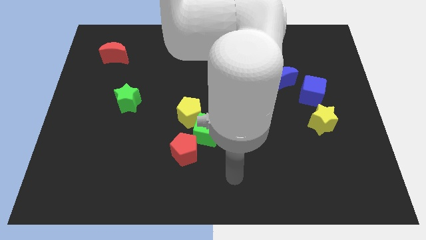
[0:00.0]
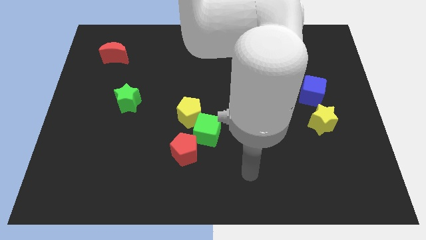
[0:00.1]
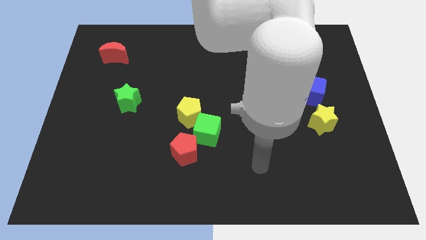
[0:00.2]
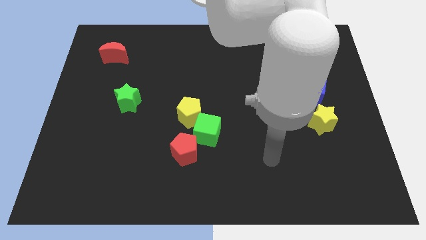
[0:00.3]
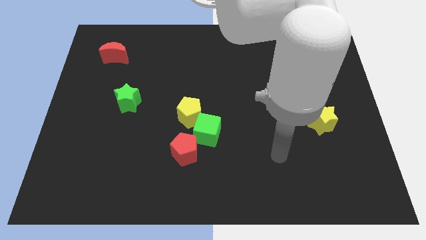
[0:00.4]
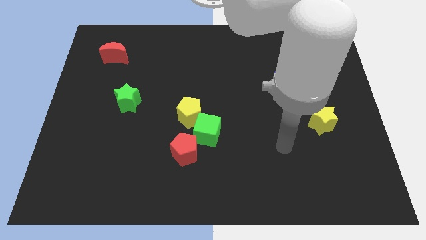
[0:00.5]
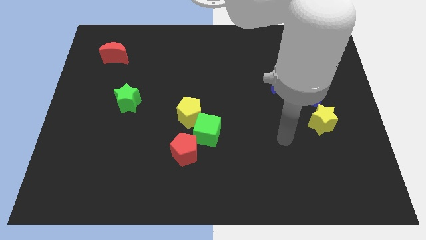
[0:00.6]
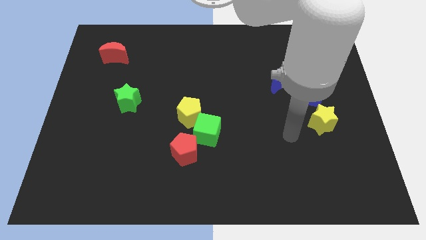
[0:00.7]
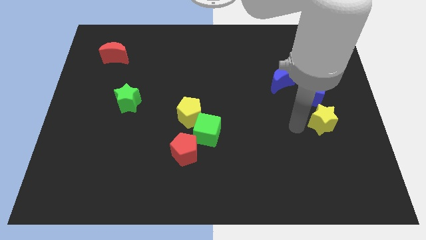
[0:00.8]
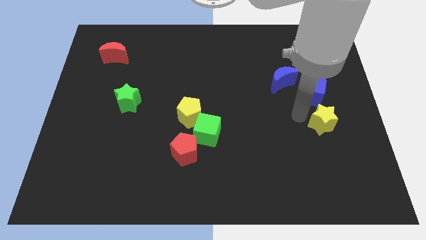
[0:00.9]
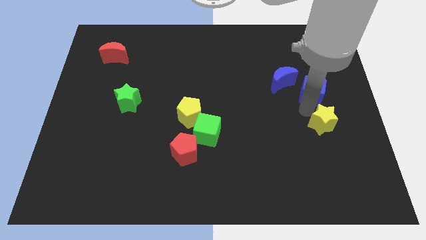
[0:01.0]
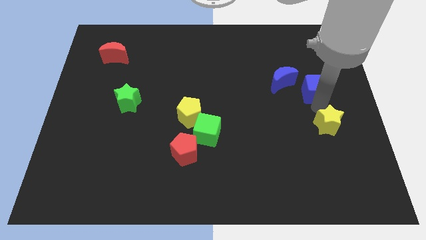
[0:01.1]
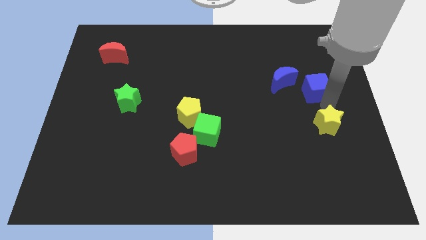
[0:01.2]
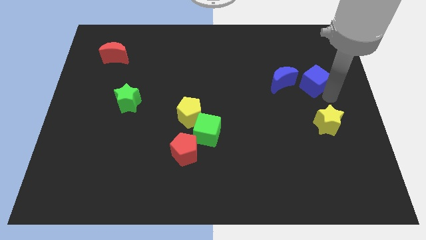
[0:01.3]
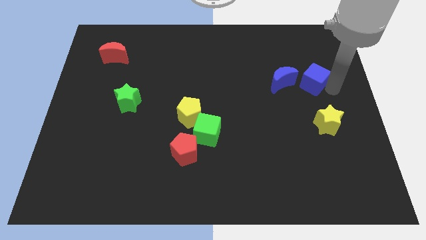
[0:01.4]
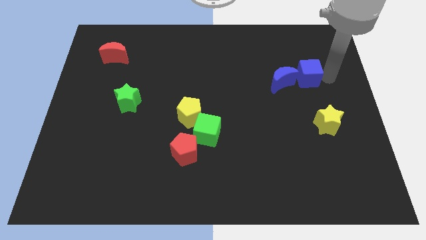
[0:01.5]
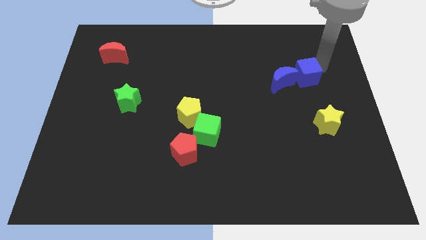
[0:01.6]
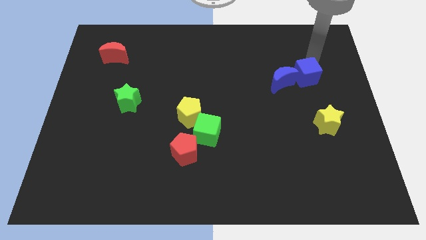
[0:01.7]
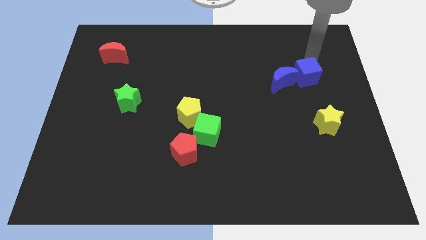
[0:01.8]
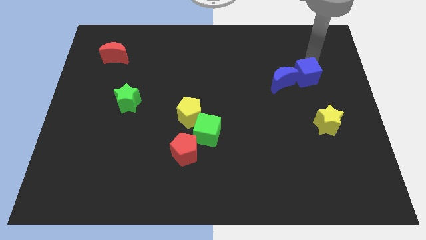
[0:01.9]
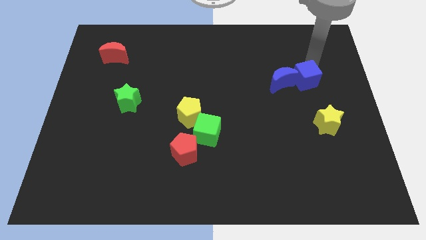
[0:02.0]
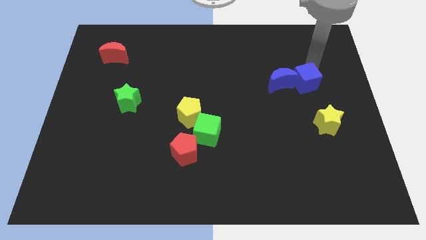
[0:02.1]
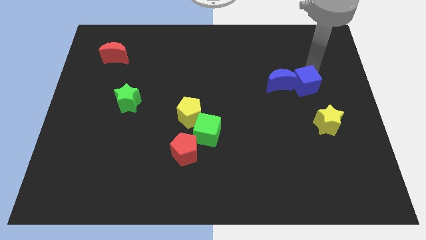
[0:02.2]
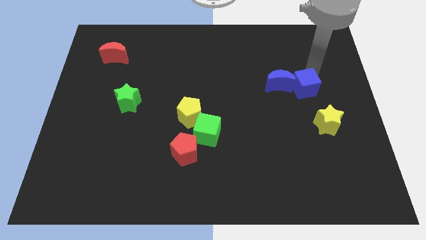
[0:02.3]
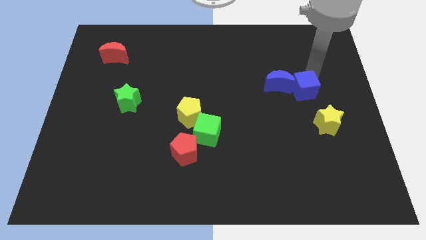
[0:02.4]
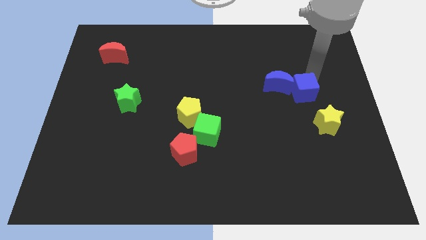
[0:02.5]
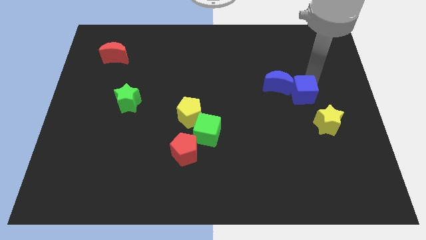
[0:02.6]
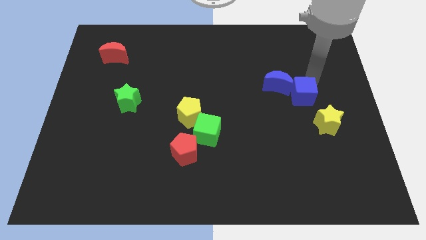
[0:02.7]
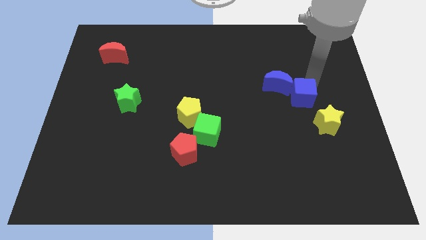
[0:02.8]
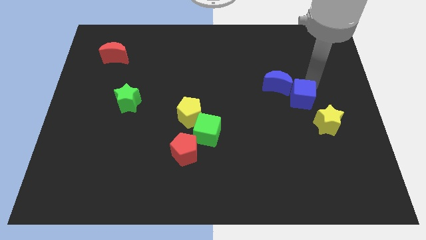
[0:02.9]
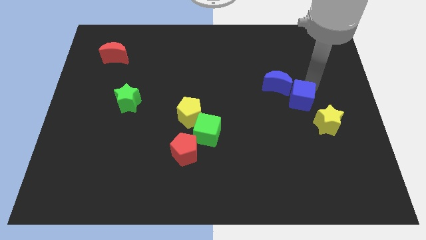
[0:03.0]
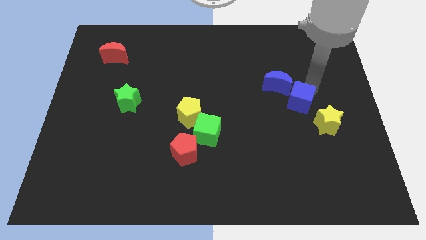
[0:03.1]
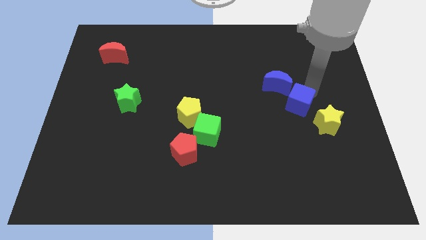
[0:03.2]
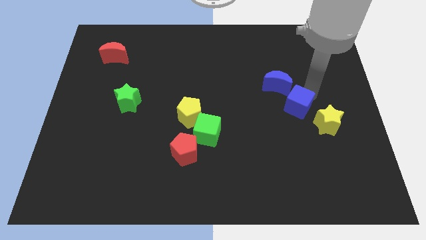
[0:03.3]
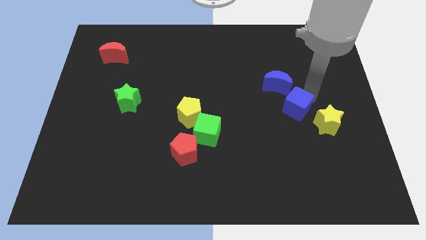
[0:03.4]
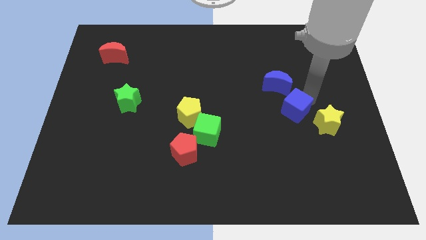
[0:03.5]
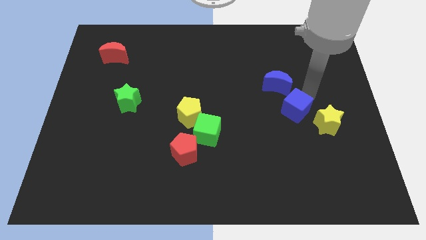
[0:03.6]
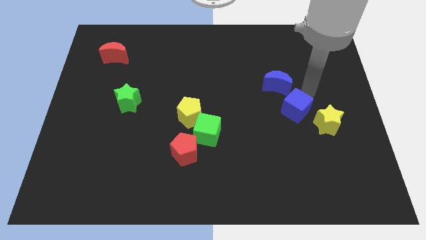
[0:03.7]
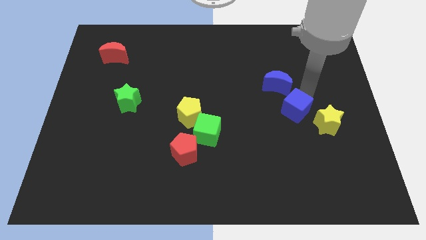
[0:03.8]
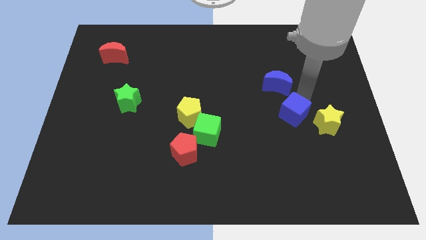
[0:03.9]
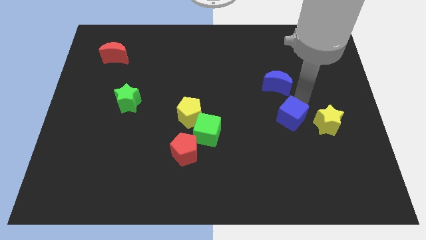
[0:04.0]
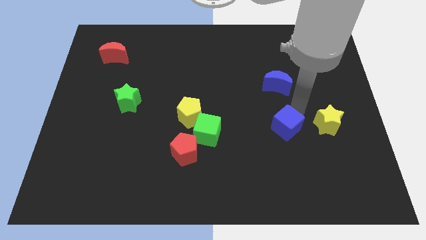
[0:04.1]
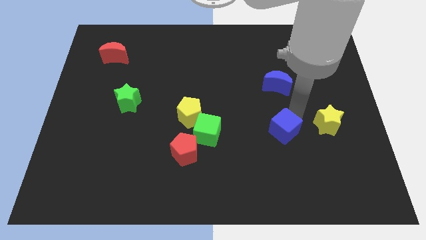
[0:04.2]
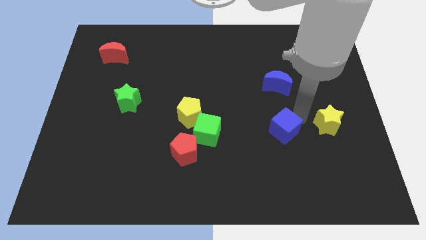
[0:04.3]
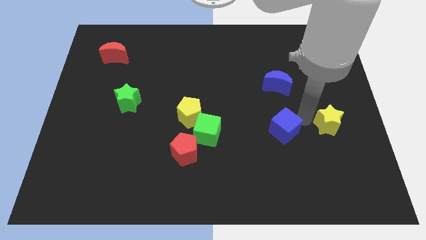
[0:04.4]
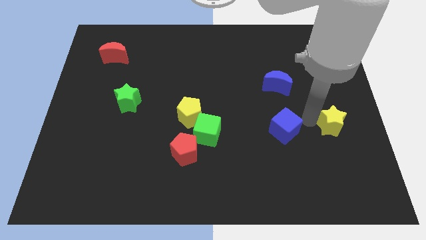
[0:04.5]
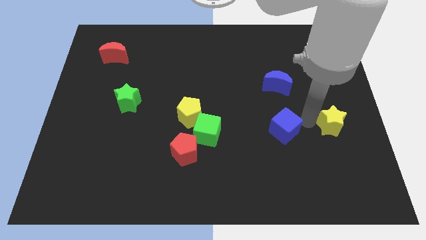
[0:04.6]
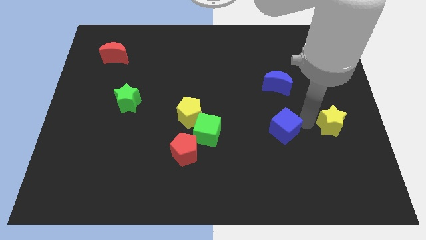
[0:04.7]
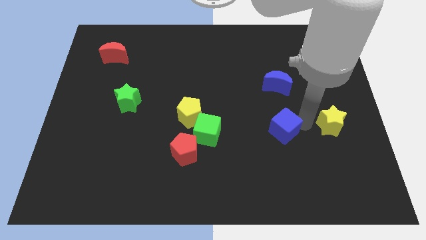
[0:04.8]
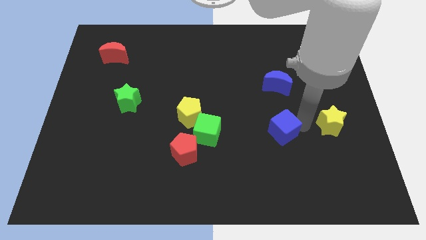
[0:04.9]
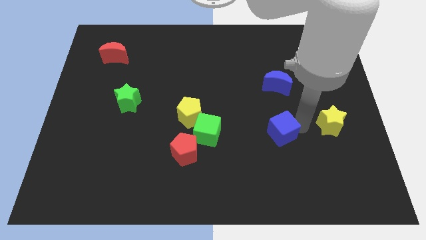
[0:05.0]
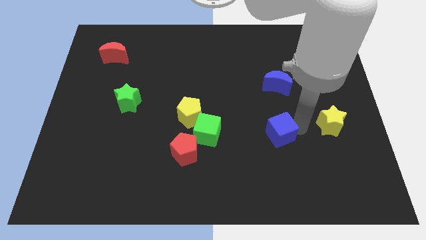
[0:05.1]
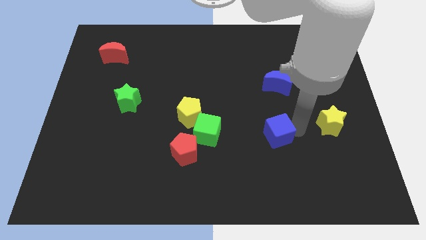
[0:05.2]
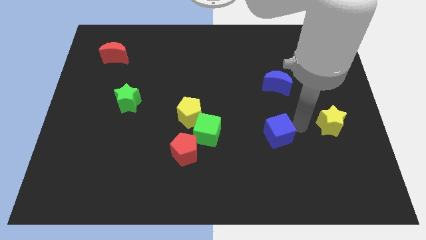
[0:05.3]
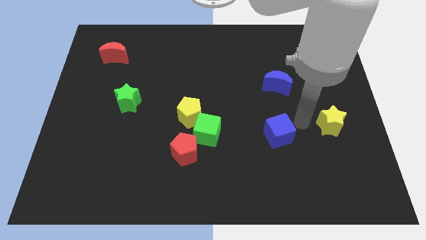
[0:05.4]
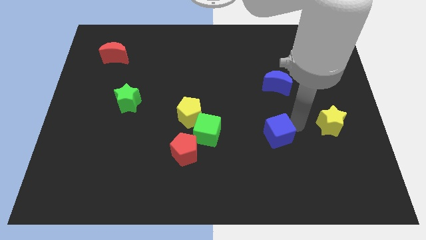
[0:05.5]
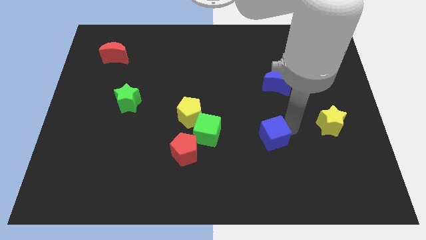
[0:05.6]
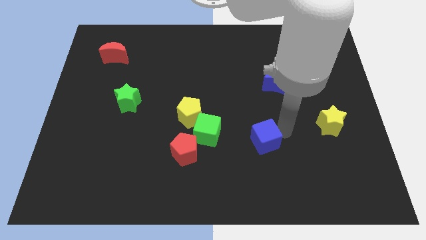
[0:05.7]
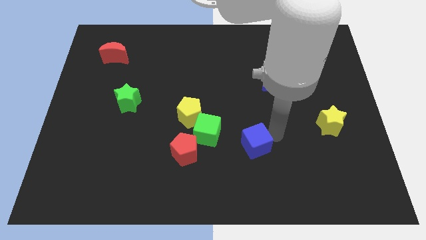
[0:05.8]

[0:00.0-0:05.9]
move the blue cube down and then to the left

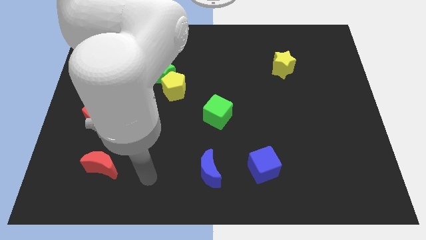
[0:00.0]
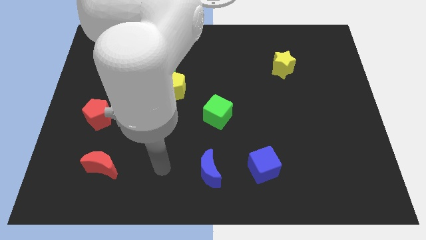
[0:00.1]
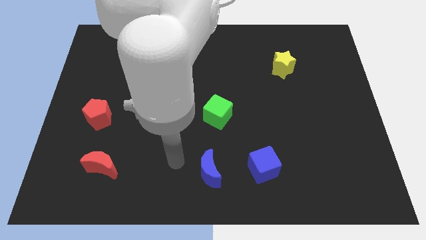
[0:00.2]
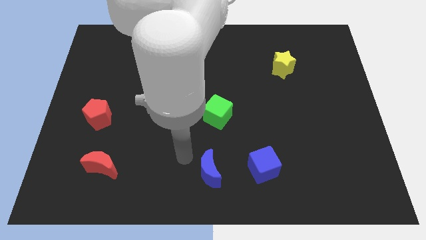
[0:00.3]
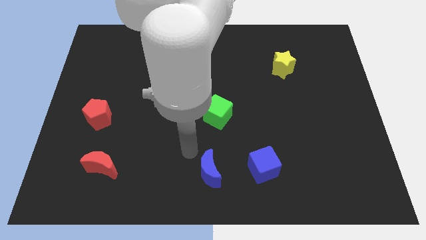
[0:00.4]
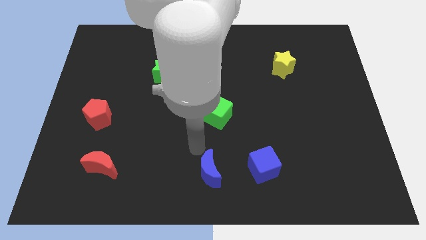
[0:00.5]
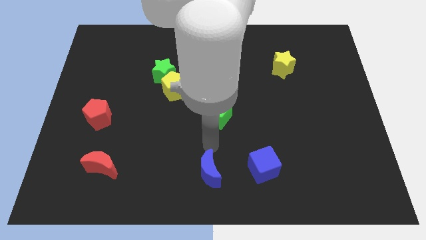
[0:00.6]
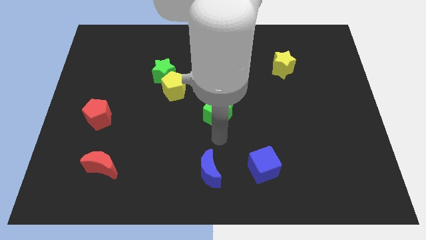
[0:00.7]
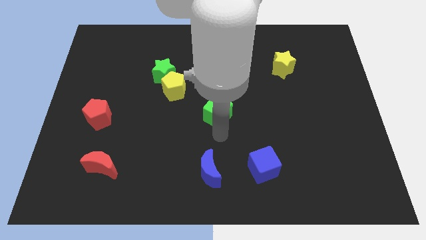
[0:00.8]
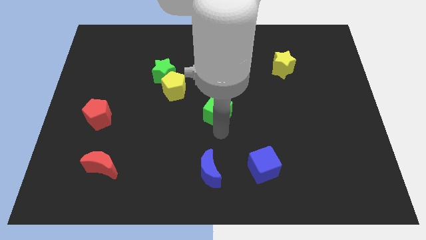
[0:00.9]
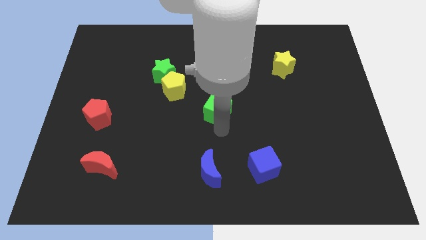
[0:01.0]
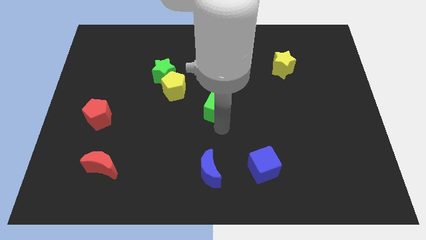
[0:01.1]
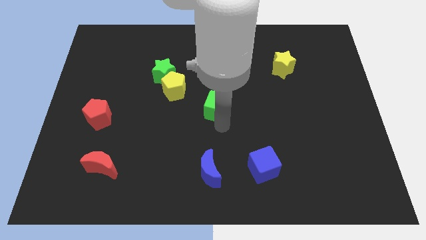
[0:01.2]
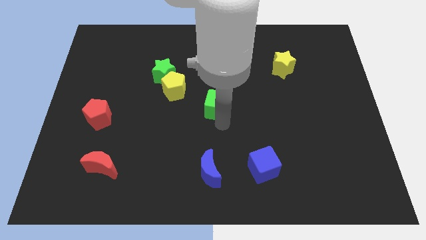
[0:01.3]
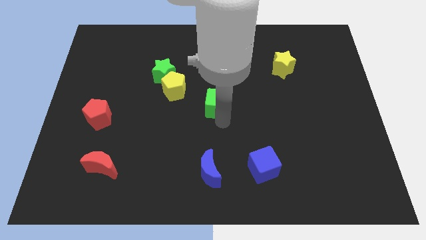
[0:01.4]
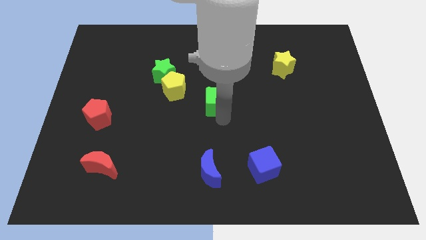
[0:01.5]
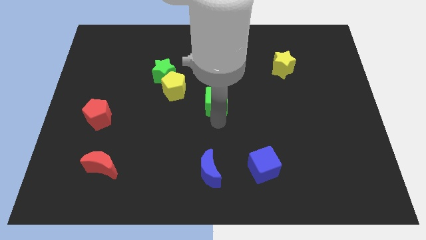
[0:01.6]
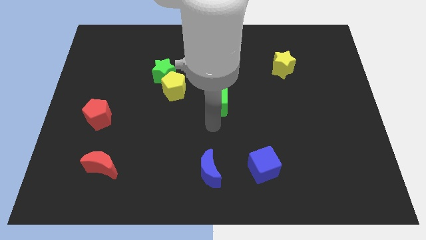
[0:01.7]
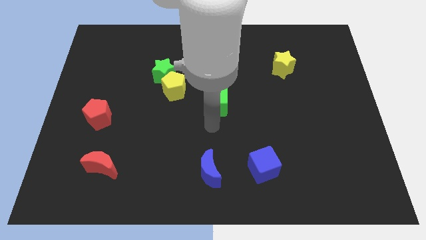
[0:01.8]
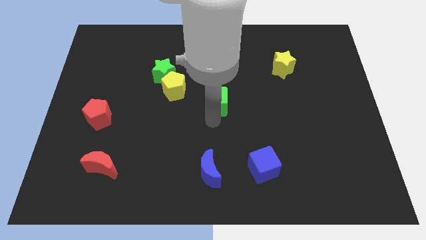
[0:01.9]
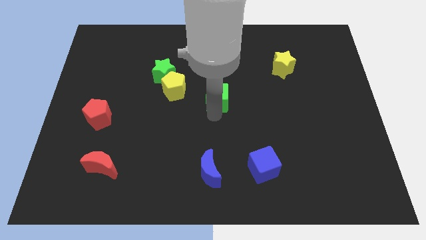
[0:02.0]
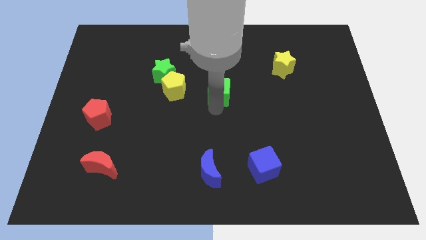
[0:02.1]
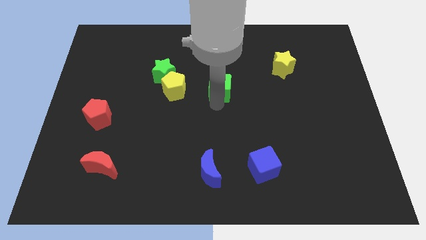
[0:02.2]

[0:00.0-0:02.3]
slide the green cube somewhat up

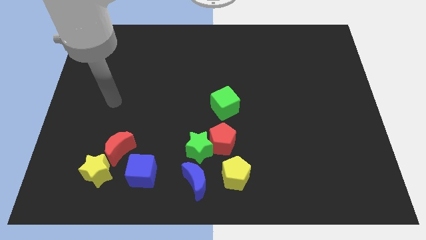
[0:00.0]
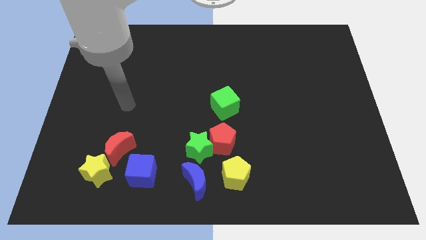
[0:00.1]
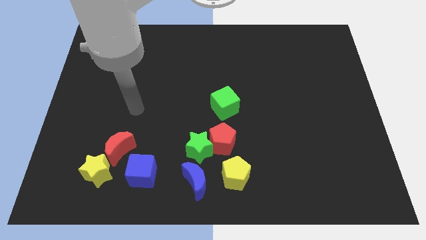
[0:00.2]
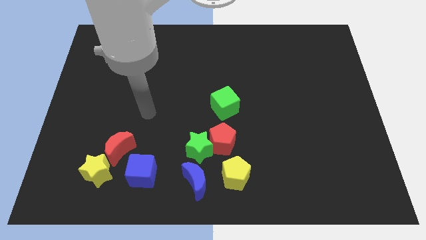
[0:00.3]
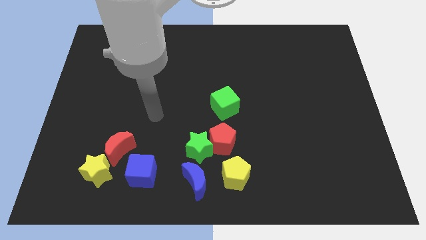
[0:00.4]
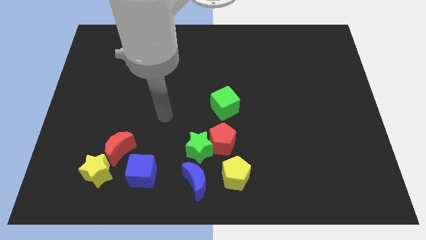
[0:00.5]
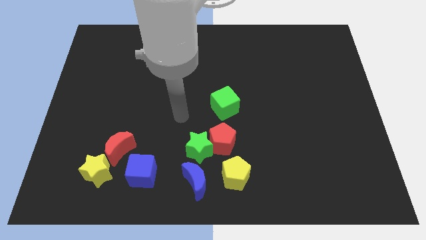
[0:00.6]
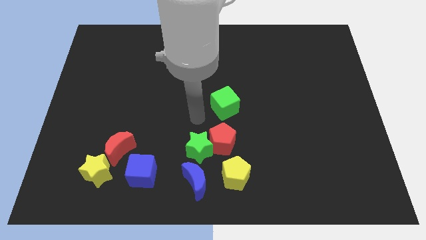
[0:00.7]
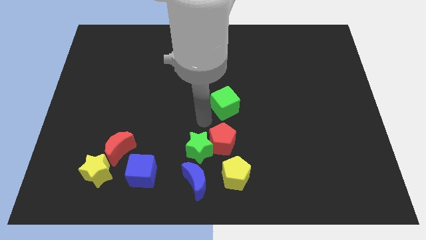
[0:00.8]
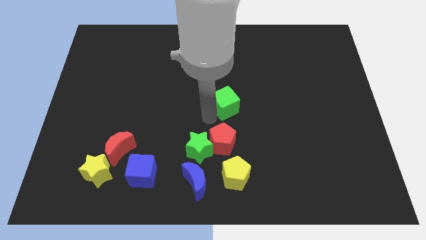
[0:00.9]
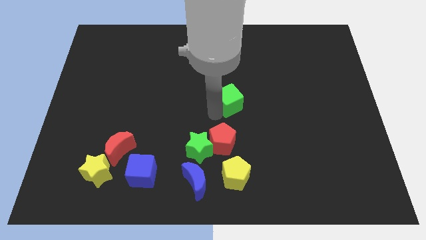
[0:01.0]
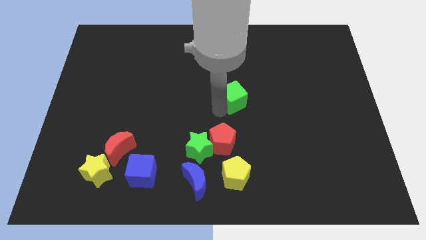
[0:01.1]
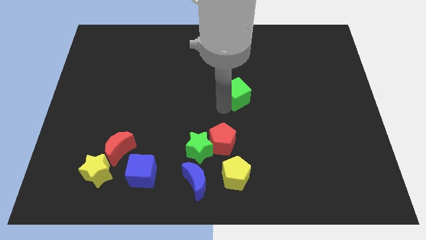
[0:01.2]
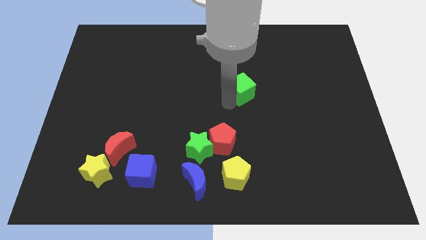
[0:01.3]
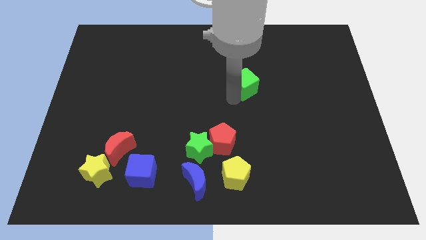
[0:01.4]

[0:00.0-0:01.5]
slide the green cube a little up and then to the right
